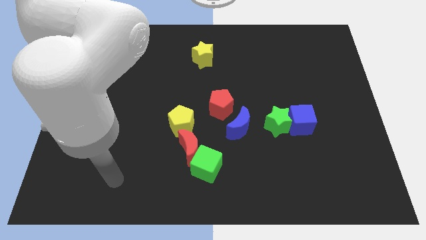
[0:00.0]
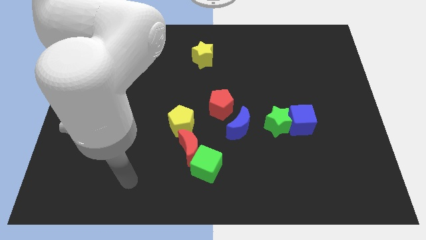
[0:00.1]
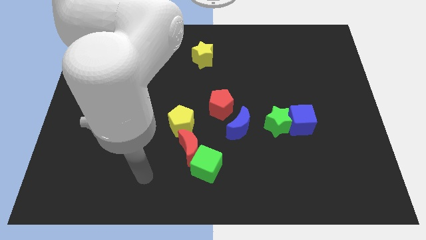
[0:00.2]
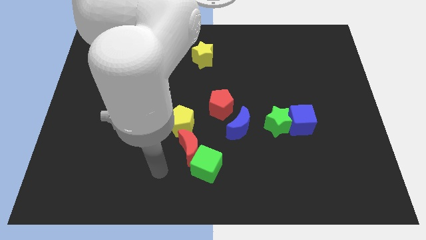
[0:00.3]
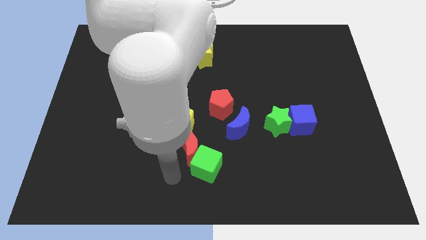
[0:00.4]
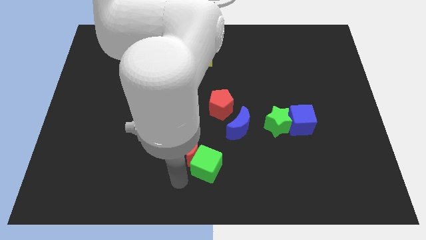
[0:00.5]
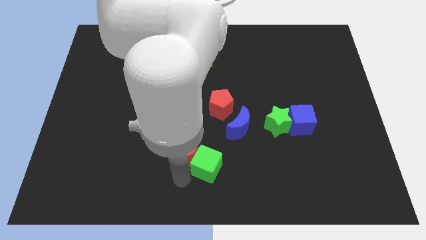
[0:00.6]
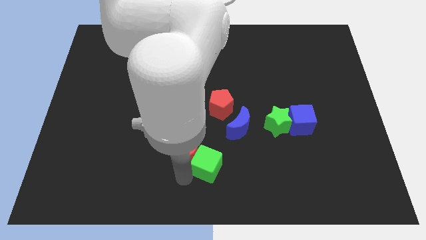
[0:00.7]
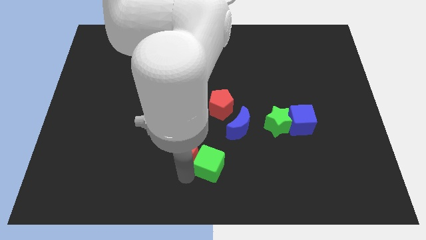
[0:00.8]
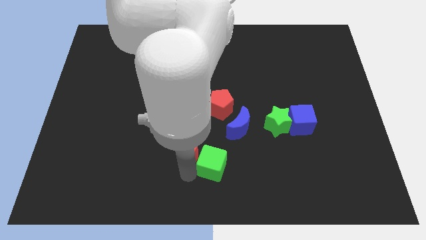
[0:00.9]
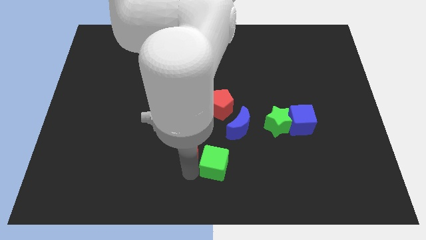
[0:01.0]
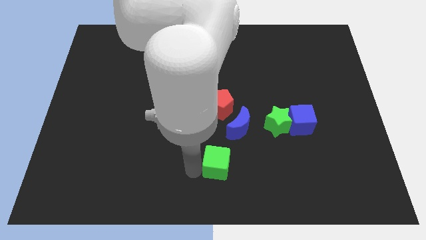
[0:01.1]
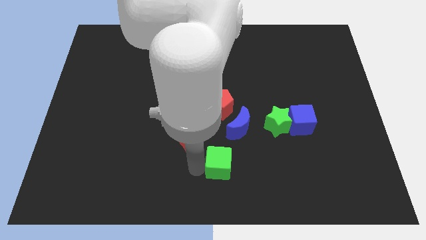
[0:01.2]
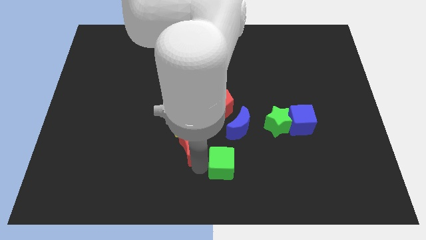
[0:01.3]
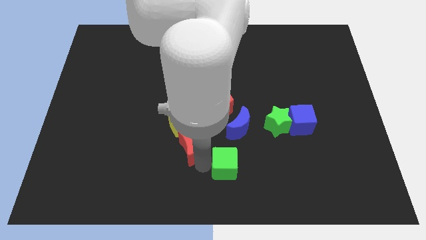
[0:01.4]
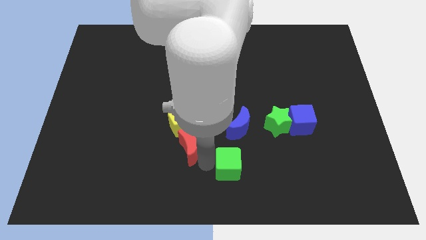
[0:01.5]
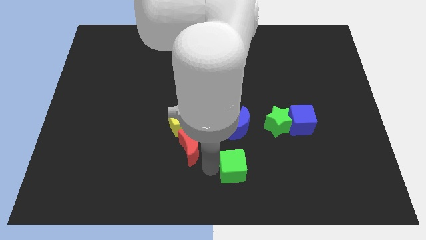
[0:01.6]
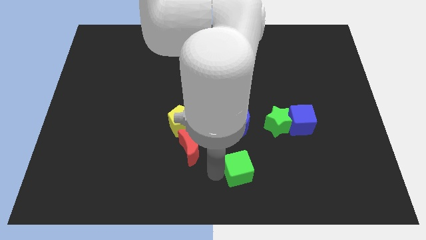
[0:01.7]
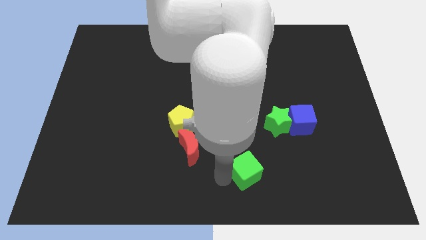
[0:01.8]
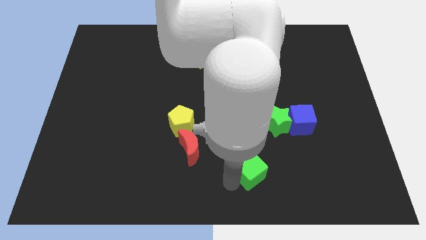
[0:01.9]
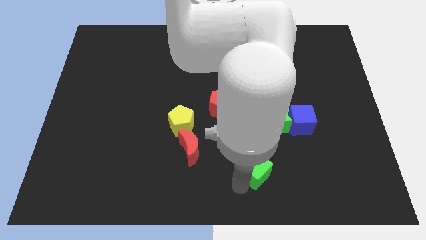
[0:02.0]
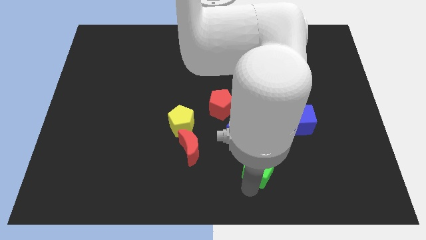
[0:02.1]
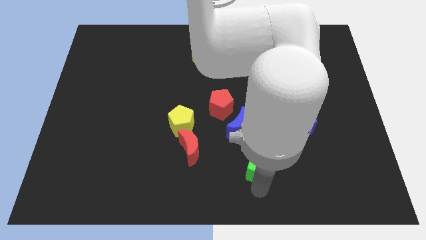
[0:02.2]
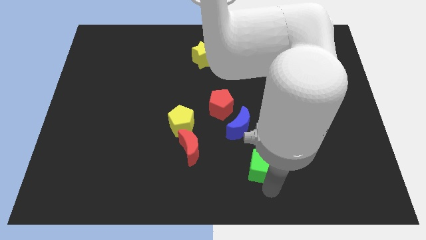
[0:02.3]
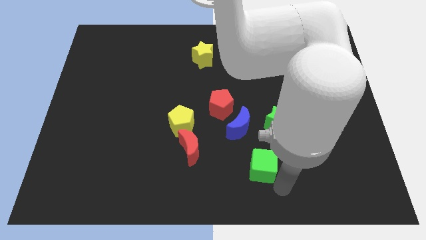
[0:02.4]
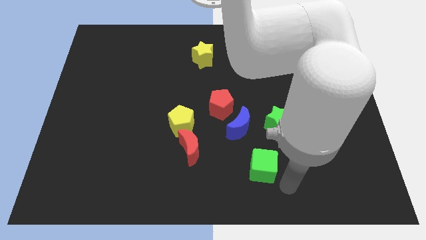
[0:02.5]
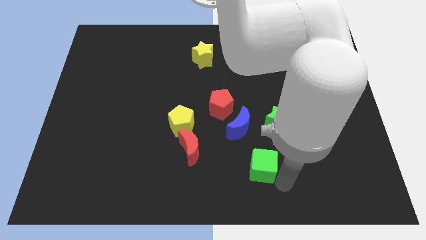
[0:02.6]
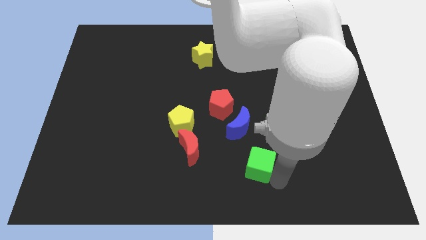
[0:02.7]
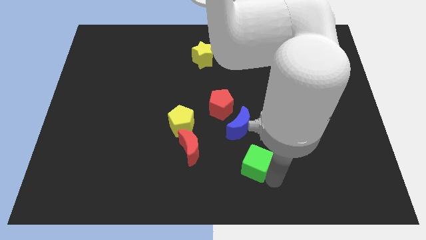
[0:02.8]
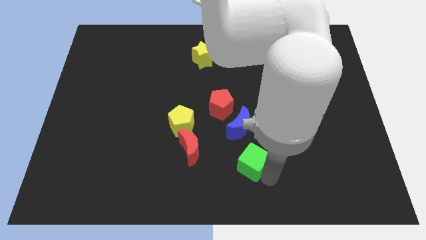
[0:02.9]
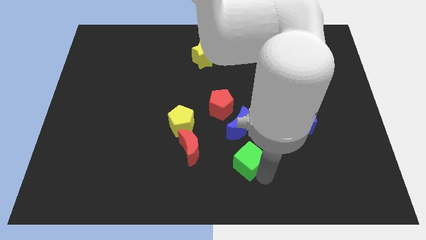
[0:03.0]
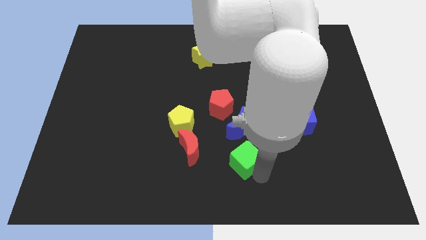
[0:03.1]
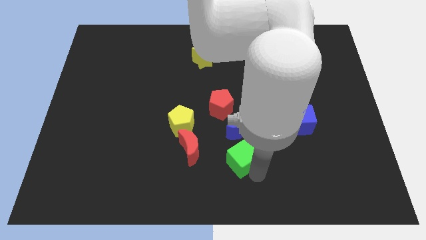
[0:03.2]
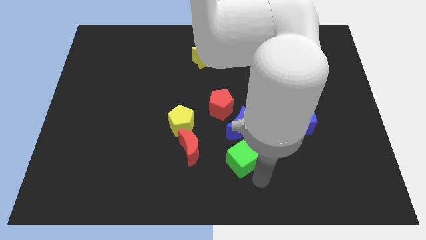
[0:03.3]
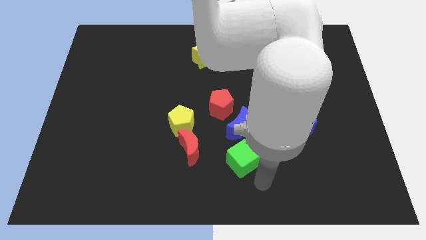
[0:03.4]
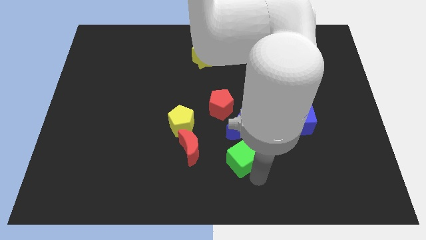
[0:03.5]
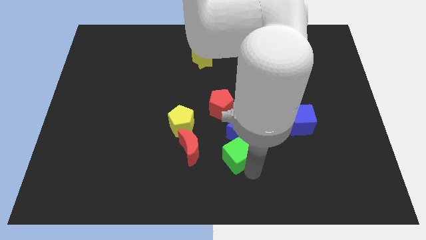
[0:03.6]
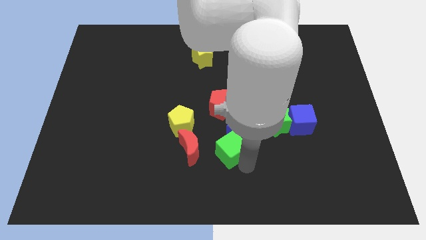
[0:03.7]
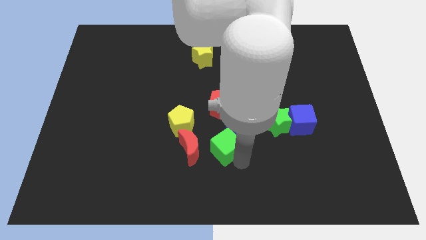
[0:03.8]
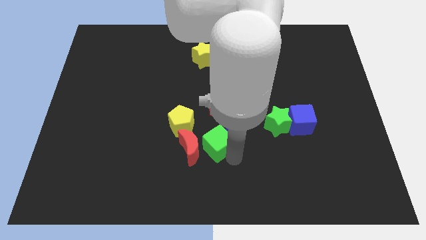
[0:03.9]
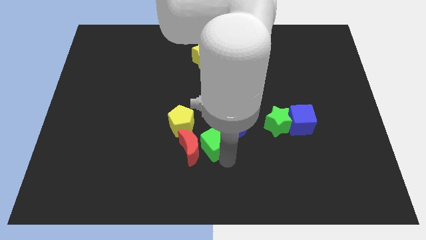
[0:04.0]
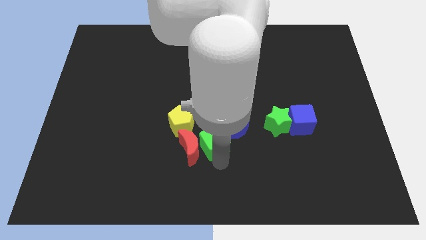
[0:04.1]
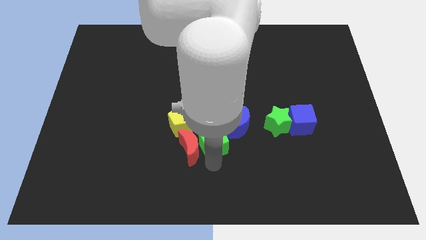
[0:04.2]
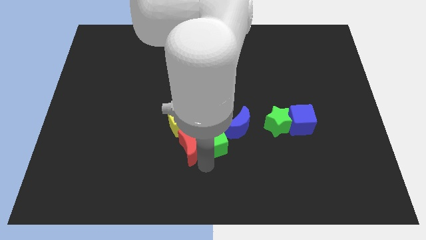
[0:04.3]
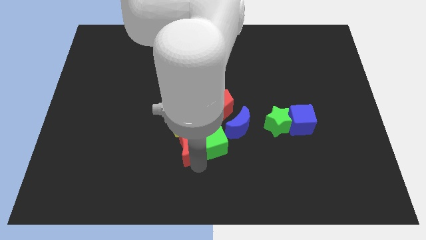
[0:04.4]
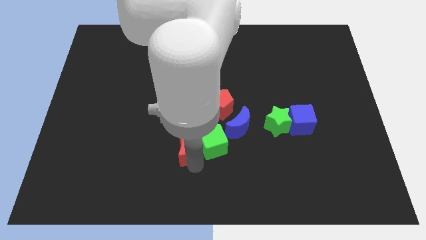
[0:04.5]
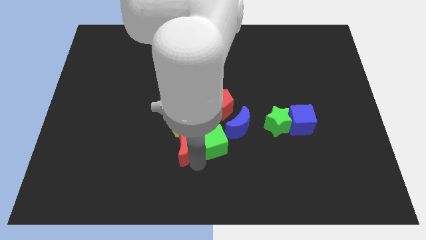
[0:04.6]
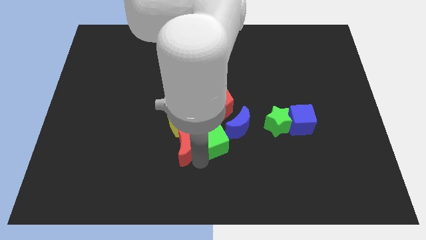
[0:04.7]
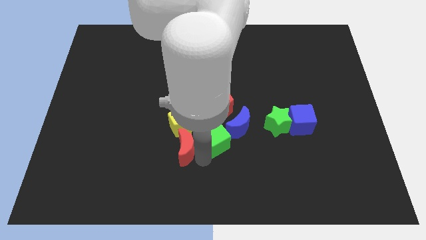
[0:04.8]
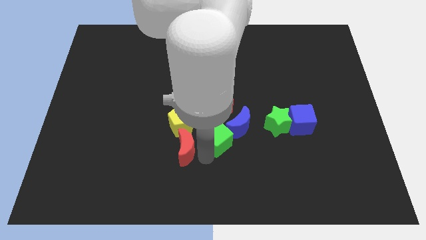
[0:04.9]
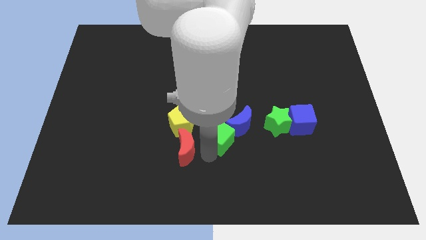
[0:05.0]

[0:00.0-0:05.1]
put the green cube to the left side of the green star

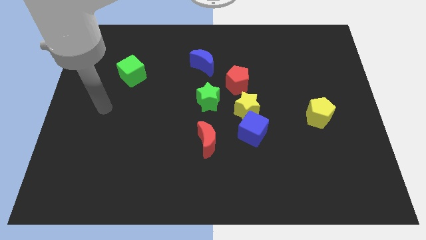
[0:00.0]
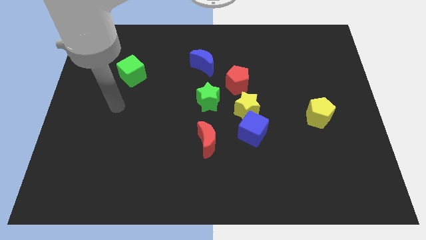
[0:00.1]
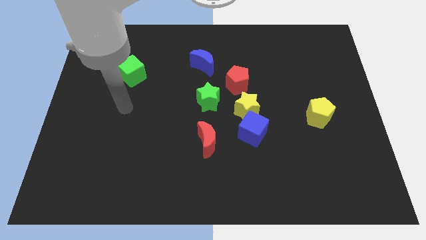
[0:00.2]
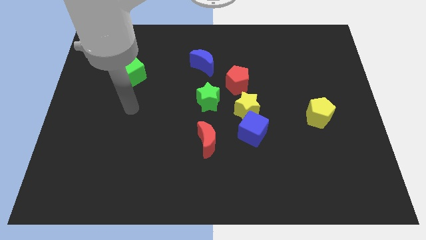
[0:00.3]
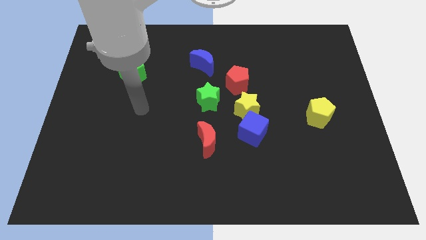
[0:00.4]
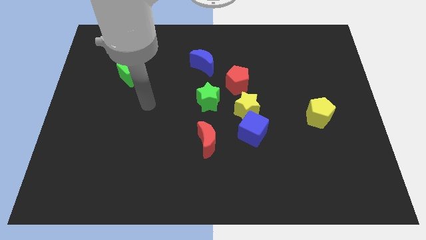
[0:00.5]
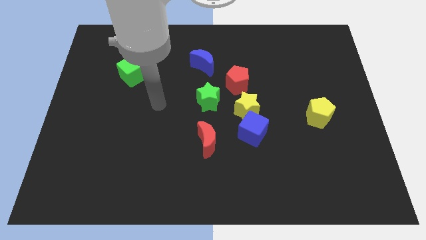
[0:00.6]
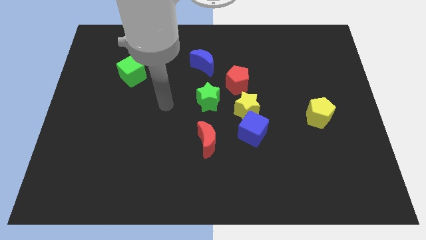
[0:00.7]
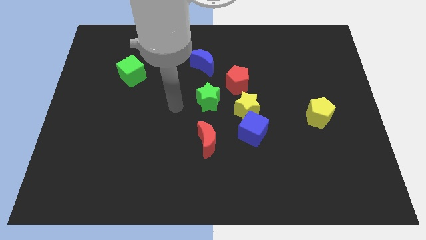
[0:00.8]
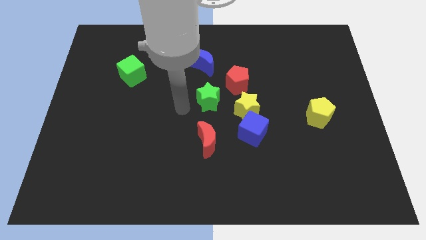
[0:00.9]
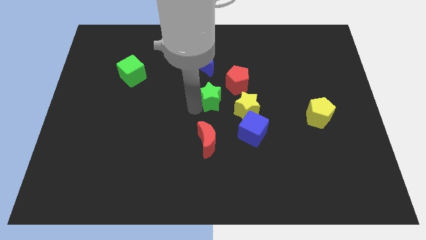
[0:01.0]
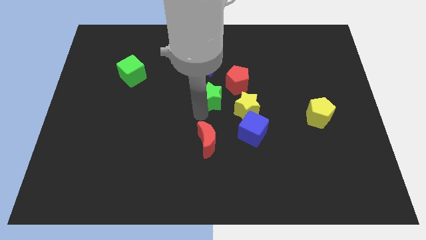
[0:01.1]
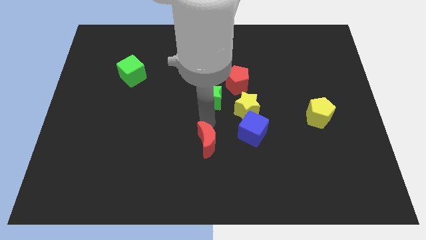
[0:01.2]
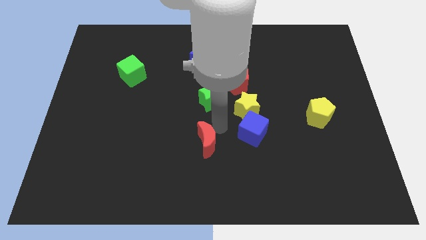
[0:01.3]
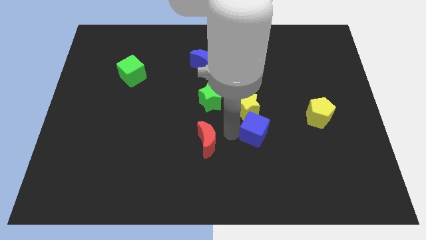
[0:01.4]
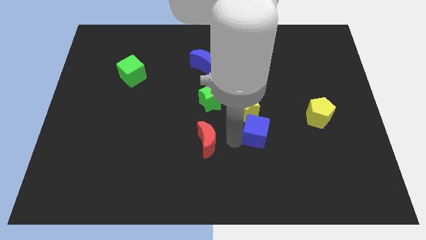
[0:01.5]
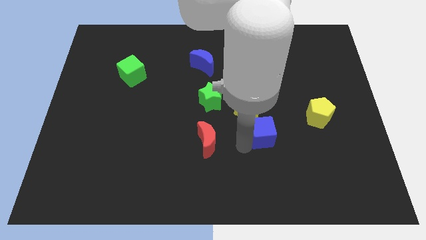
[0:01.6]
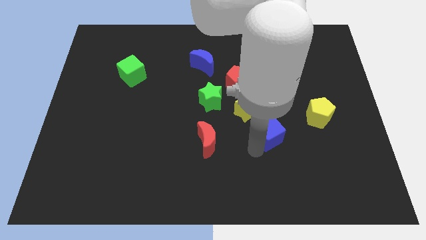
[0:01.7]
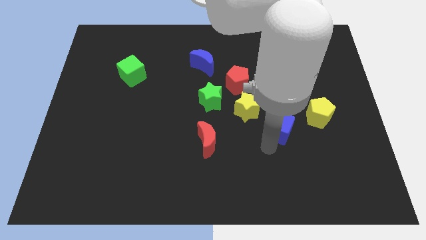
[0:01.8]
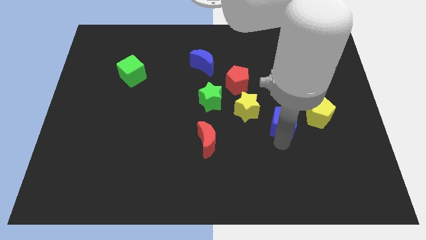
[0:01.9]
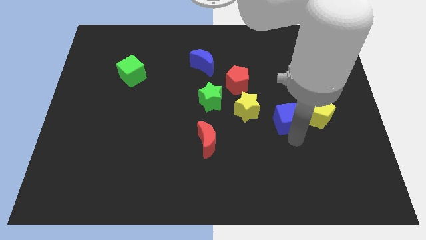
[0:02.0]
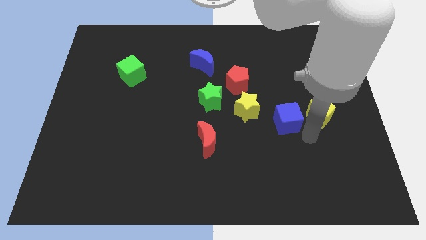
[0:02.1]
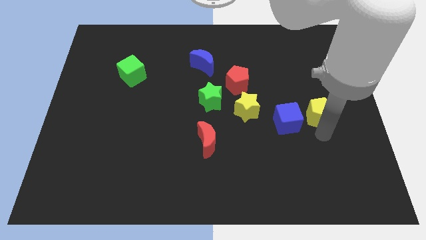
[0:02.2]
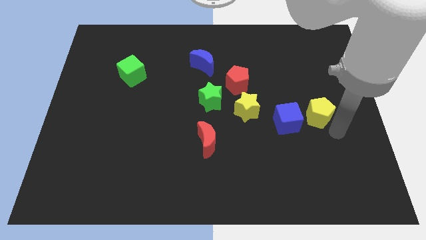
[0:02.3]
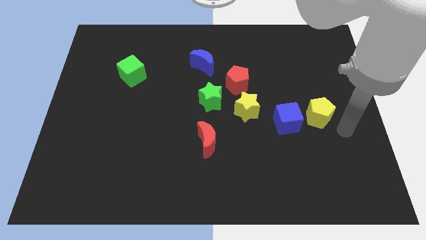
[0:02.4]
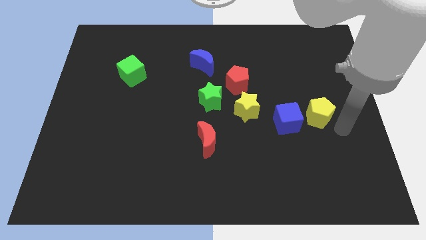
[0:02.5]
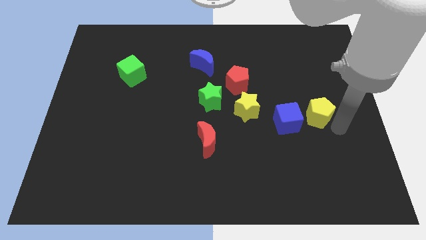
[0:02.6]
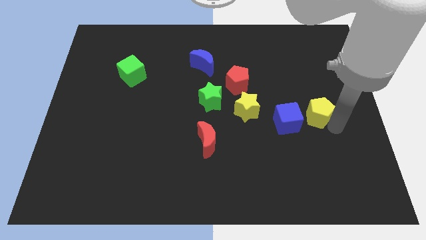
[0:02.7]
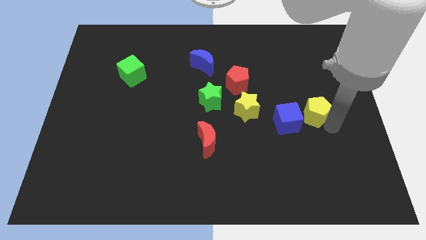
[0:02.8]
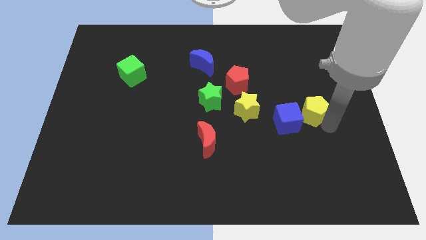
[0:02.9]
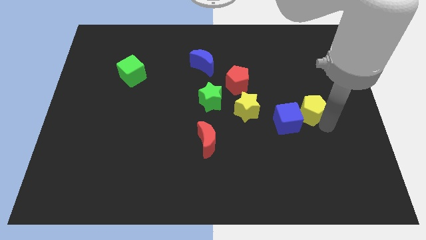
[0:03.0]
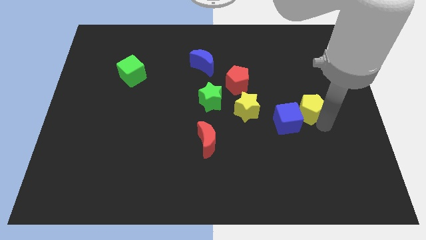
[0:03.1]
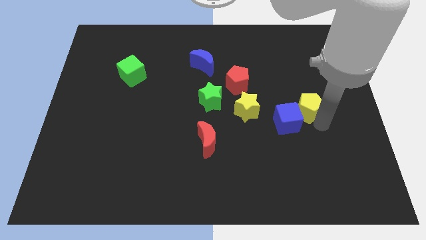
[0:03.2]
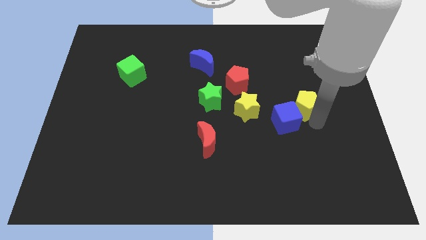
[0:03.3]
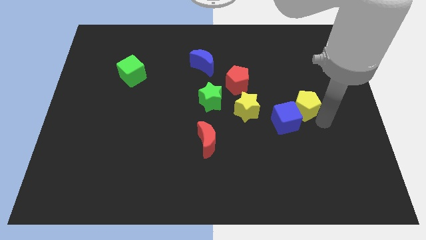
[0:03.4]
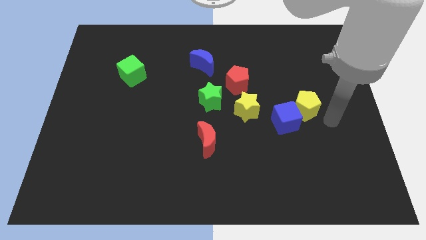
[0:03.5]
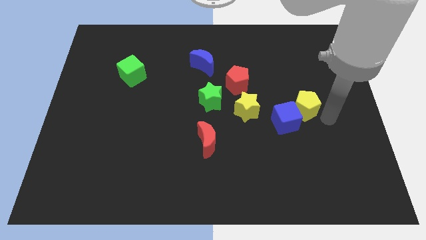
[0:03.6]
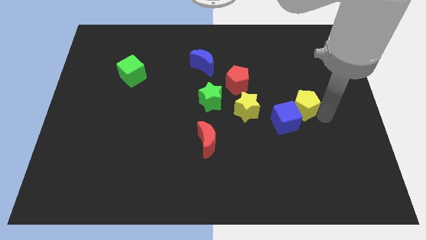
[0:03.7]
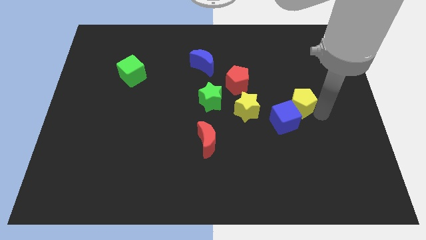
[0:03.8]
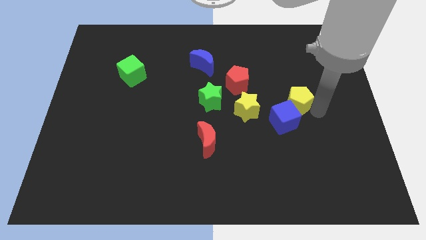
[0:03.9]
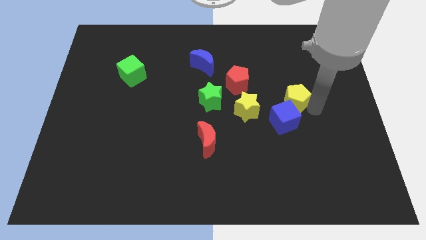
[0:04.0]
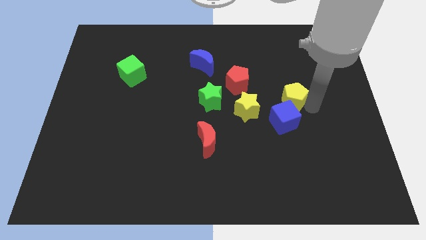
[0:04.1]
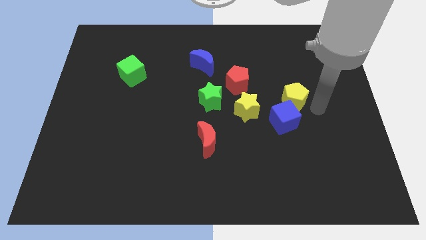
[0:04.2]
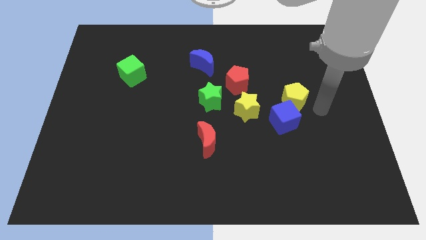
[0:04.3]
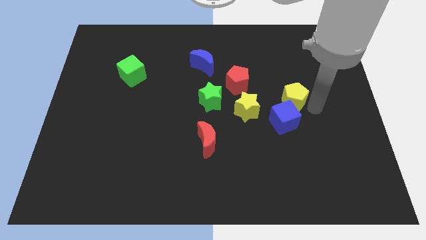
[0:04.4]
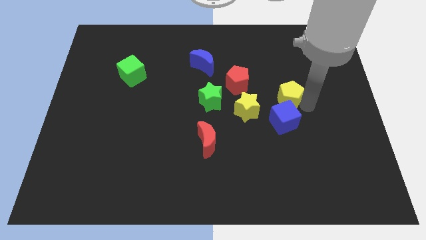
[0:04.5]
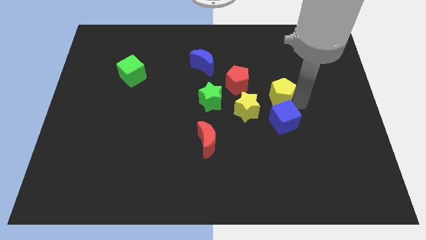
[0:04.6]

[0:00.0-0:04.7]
move the yellow pentagon to the top right of the yellow star
